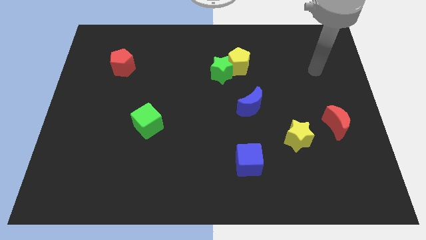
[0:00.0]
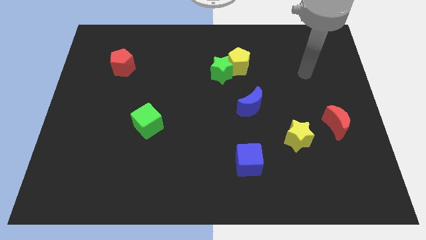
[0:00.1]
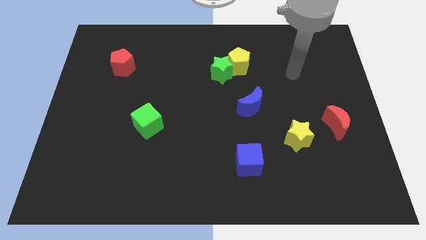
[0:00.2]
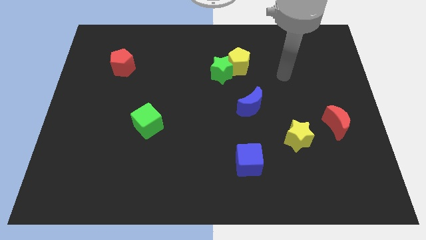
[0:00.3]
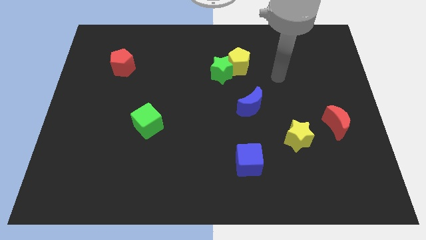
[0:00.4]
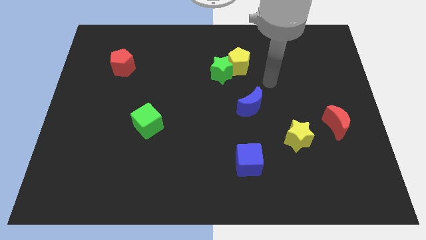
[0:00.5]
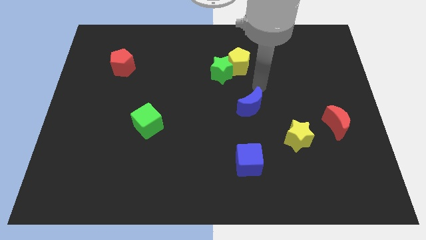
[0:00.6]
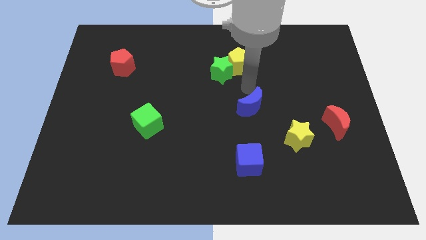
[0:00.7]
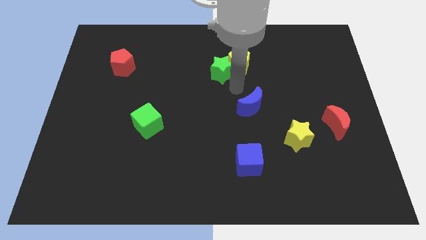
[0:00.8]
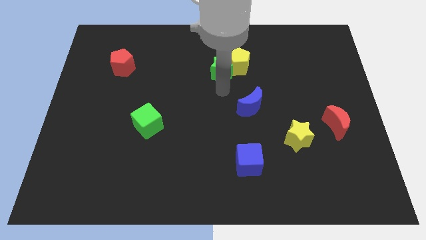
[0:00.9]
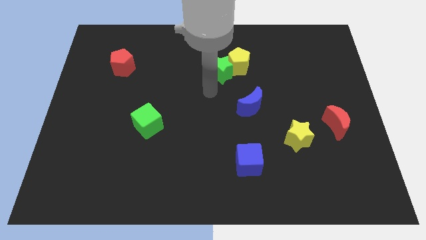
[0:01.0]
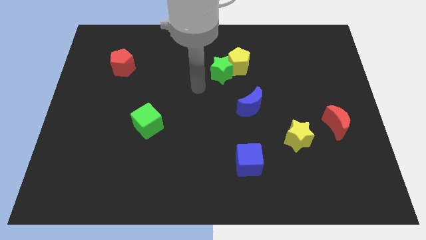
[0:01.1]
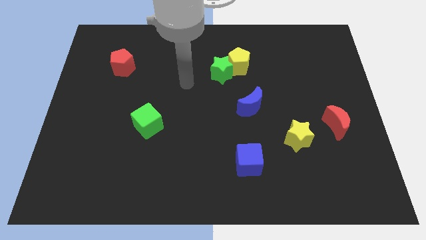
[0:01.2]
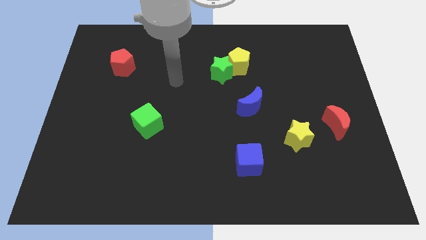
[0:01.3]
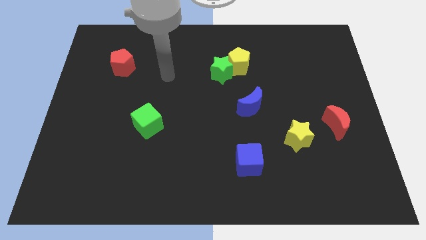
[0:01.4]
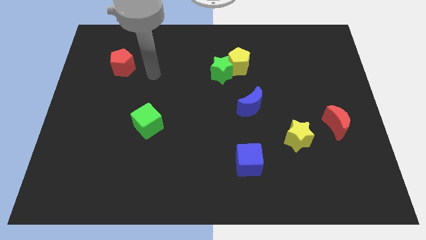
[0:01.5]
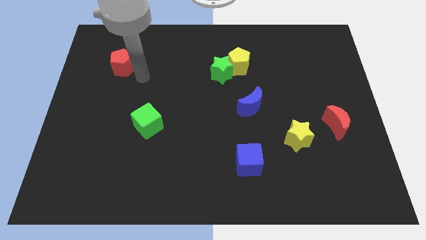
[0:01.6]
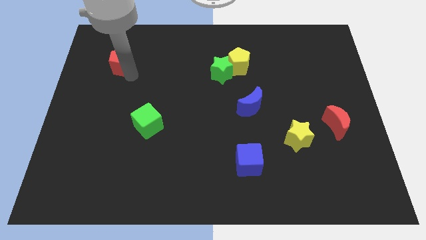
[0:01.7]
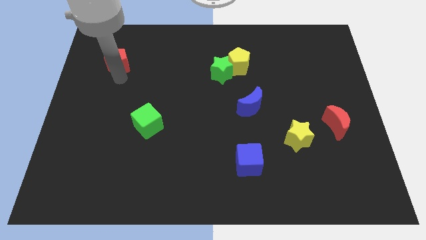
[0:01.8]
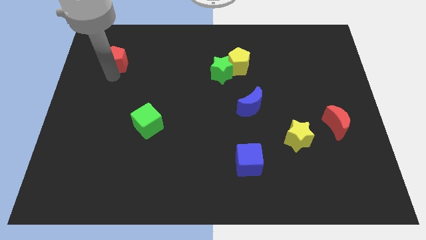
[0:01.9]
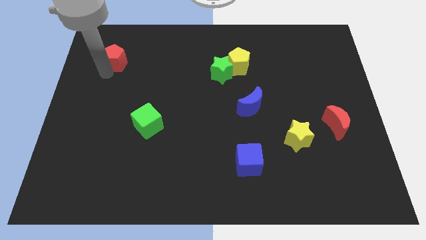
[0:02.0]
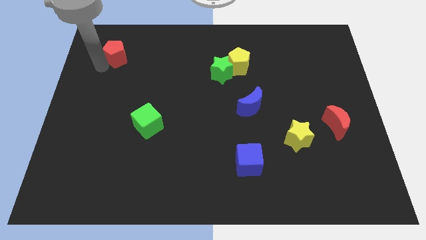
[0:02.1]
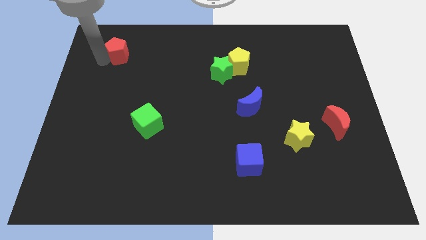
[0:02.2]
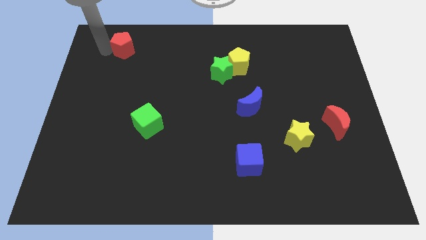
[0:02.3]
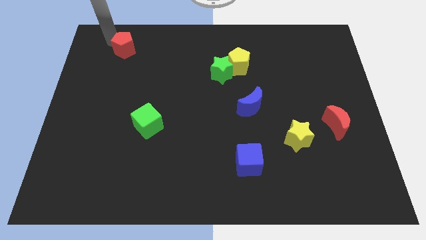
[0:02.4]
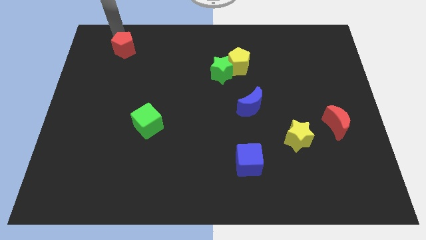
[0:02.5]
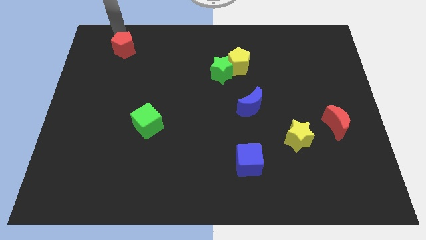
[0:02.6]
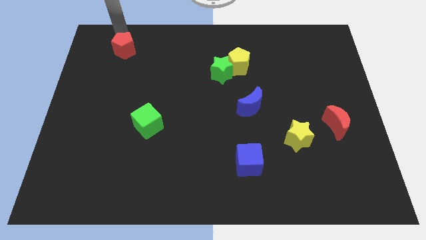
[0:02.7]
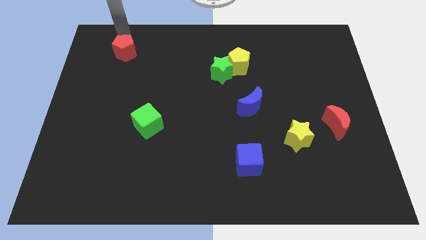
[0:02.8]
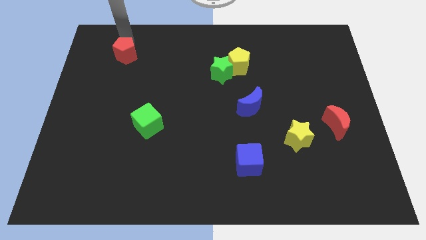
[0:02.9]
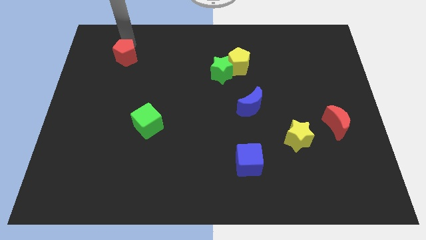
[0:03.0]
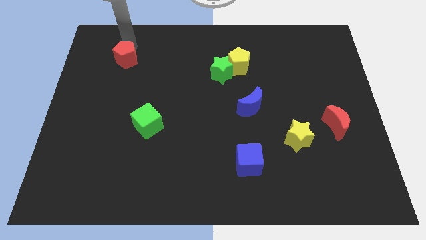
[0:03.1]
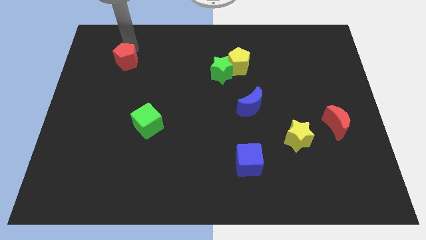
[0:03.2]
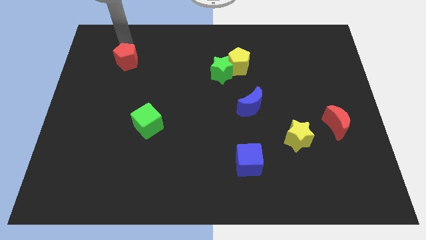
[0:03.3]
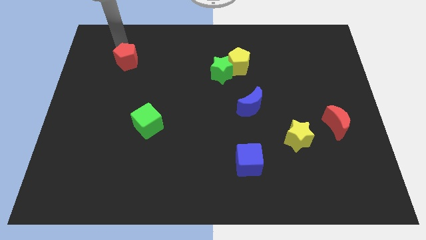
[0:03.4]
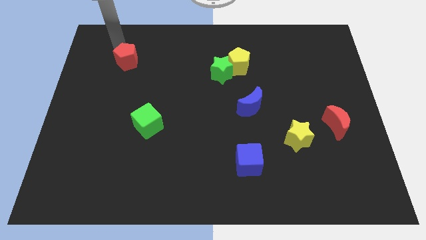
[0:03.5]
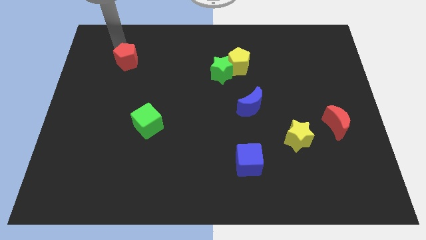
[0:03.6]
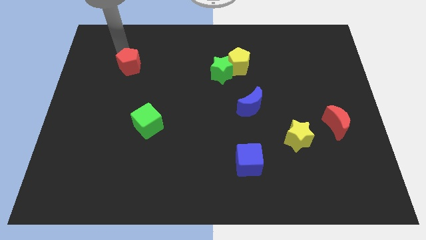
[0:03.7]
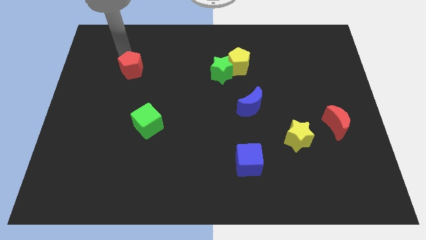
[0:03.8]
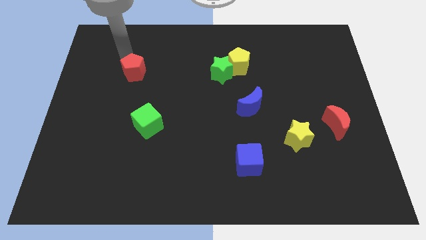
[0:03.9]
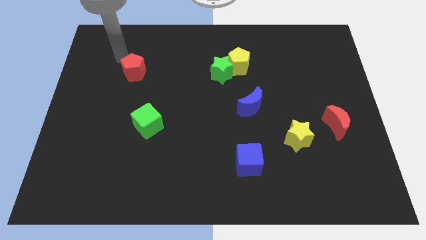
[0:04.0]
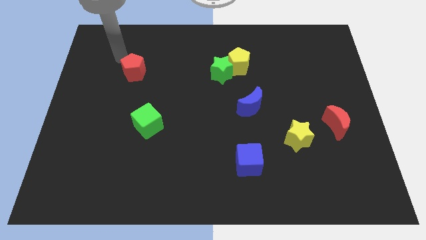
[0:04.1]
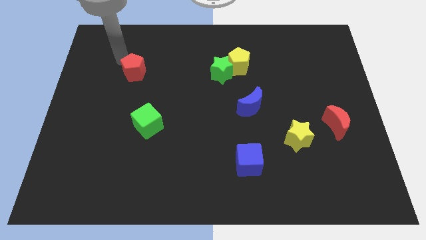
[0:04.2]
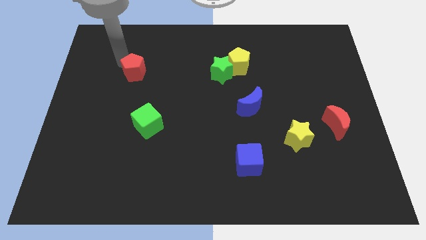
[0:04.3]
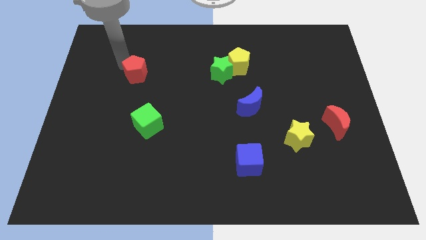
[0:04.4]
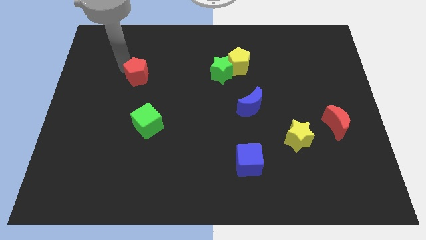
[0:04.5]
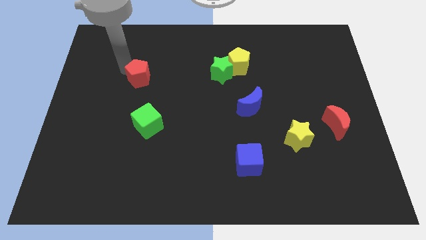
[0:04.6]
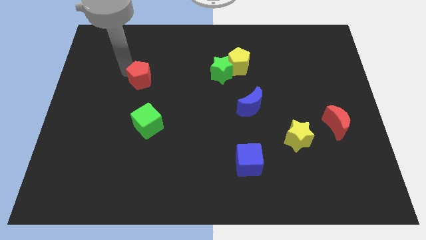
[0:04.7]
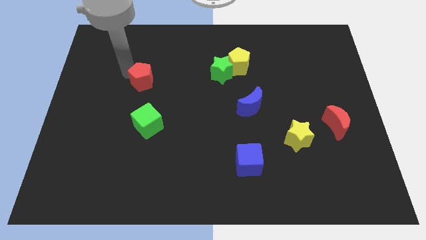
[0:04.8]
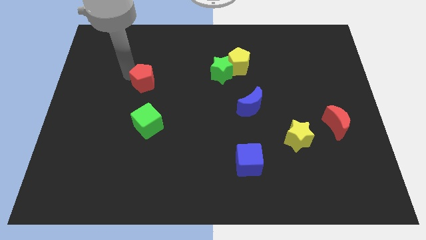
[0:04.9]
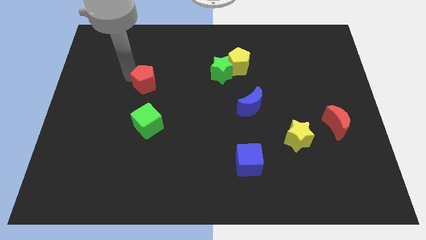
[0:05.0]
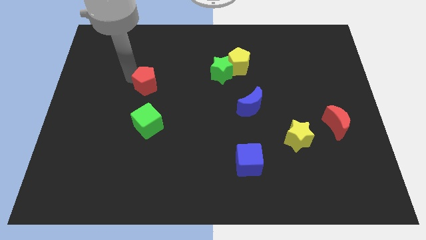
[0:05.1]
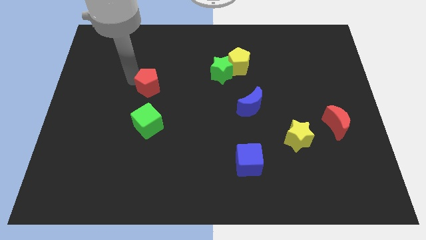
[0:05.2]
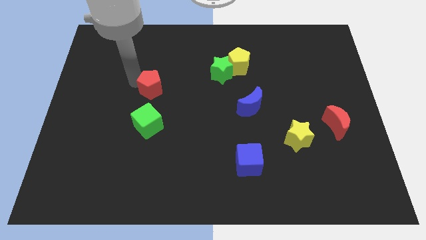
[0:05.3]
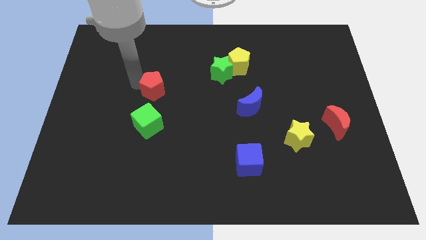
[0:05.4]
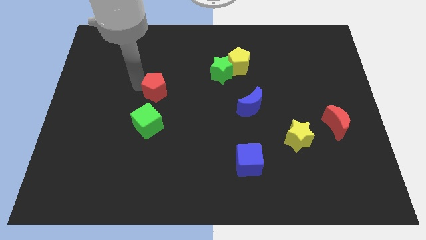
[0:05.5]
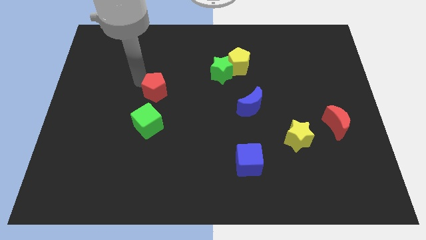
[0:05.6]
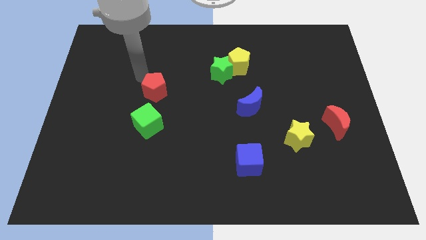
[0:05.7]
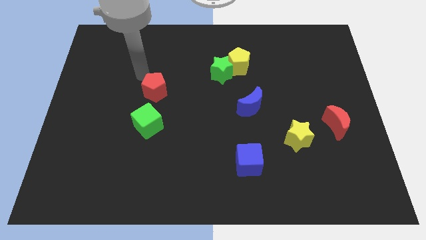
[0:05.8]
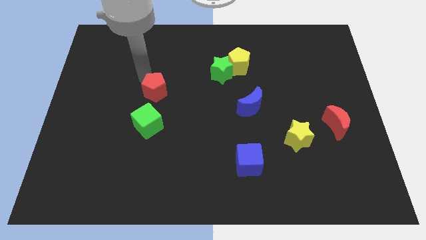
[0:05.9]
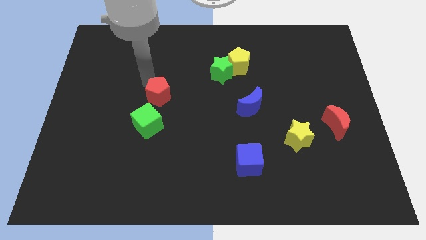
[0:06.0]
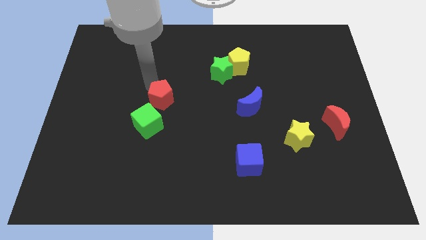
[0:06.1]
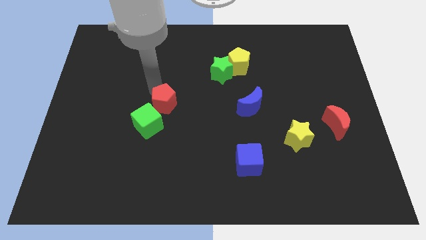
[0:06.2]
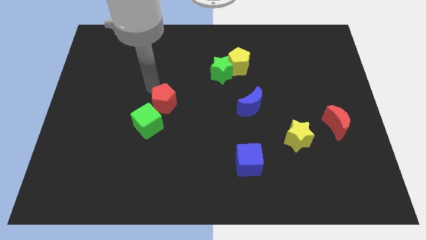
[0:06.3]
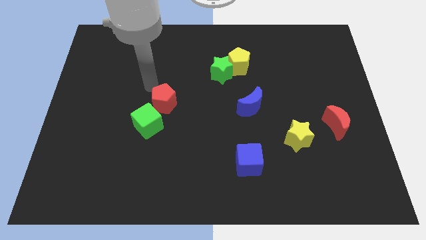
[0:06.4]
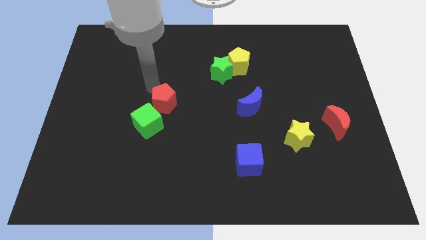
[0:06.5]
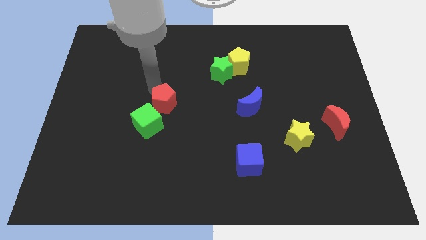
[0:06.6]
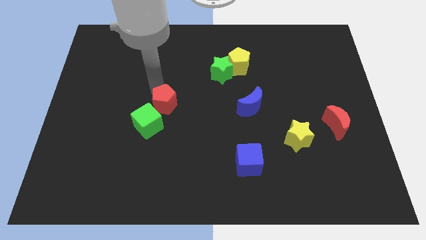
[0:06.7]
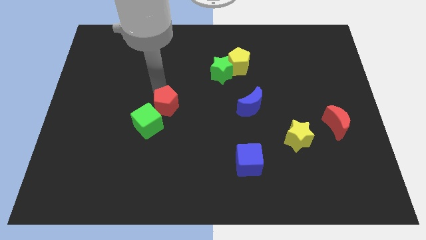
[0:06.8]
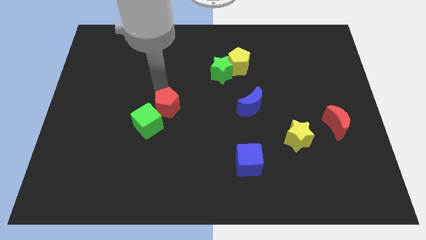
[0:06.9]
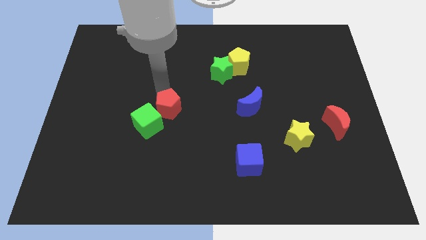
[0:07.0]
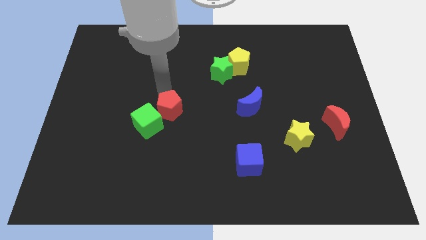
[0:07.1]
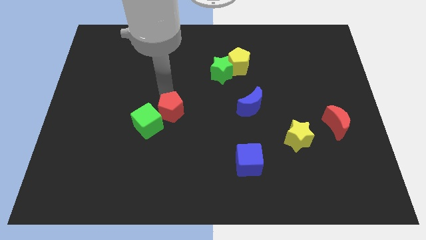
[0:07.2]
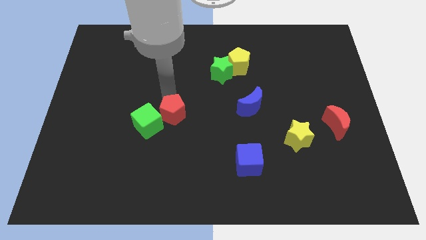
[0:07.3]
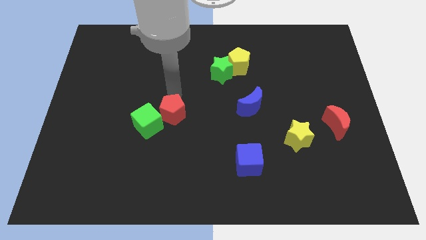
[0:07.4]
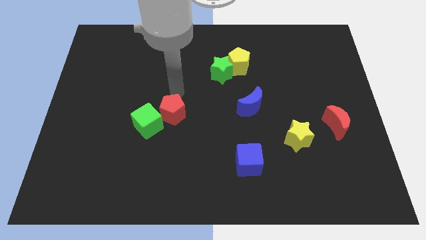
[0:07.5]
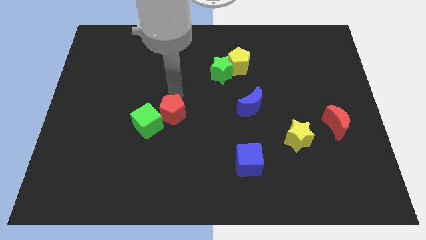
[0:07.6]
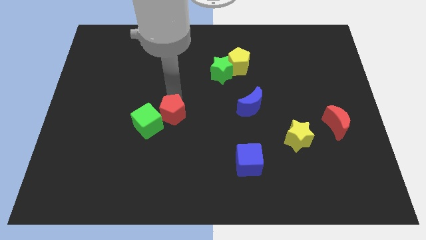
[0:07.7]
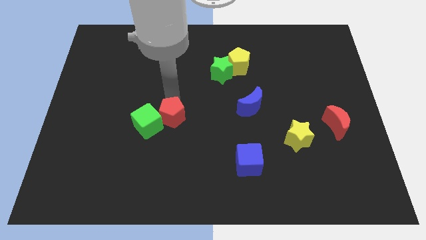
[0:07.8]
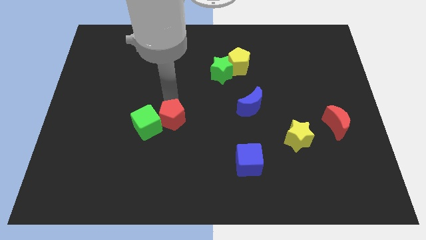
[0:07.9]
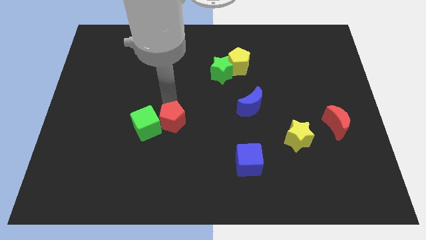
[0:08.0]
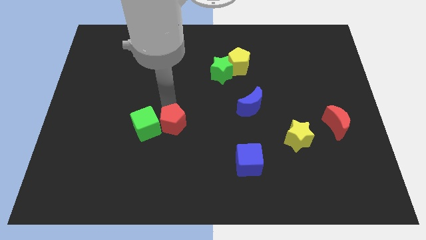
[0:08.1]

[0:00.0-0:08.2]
push the red pentagon to the bottom right of the green cube
